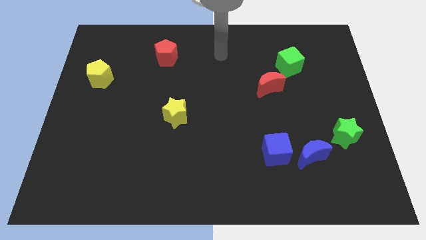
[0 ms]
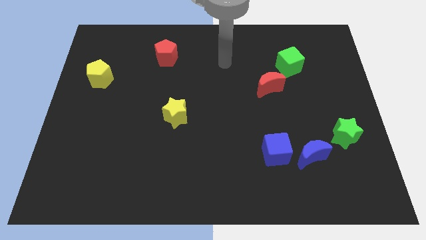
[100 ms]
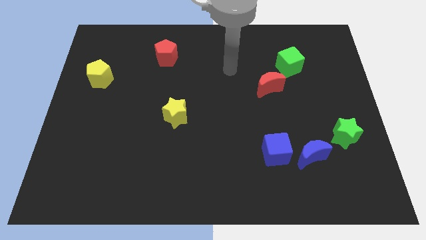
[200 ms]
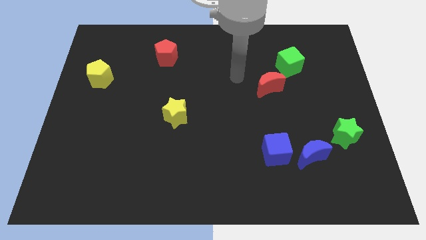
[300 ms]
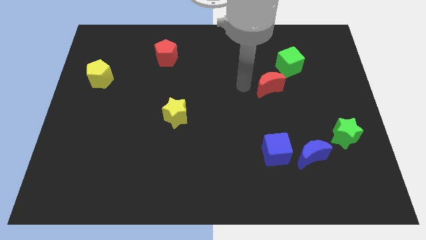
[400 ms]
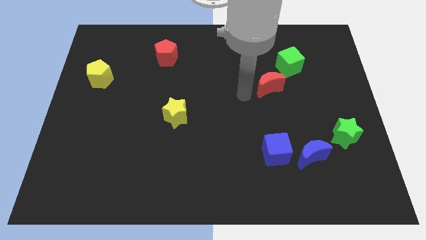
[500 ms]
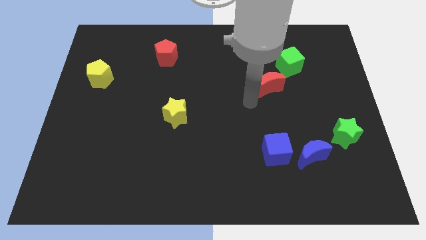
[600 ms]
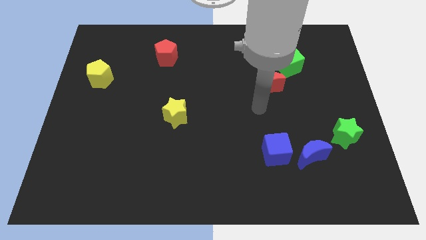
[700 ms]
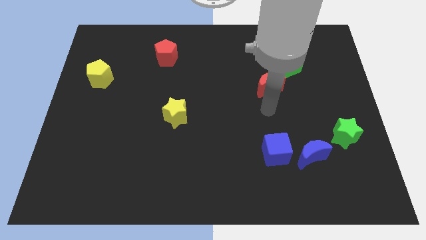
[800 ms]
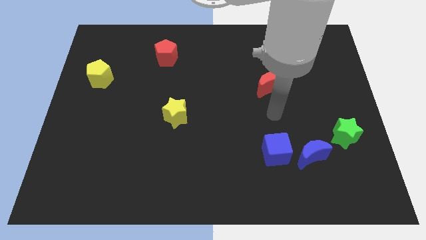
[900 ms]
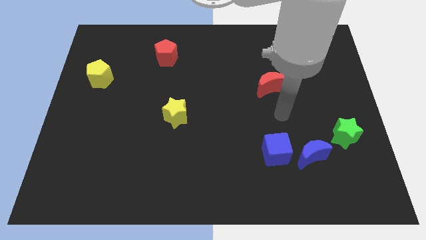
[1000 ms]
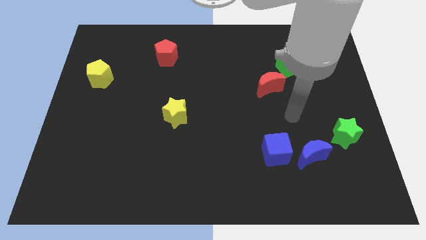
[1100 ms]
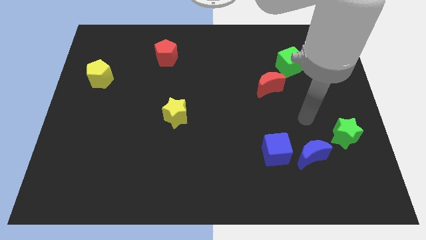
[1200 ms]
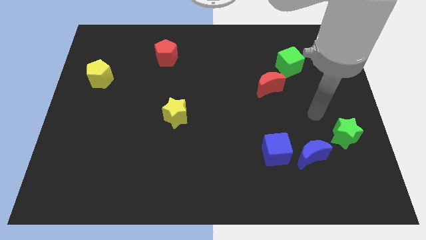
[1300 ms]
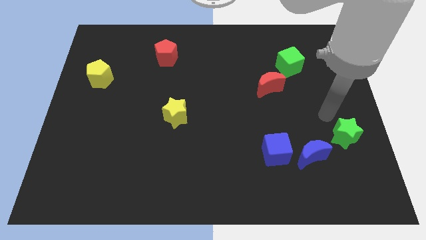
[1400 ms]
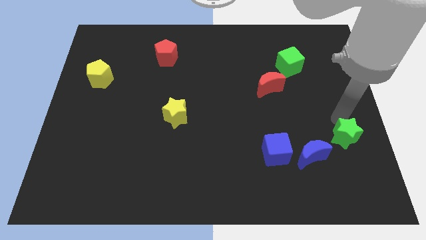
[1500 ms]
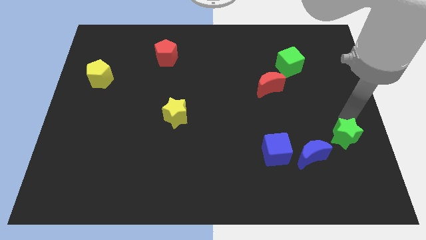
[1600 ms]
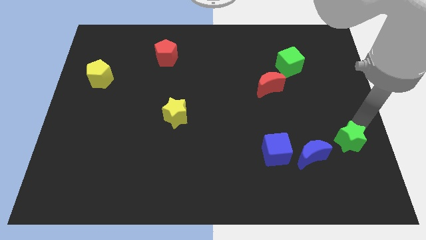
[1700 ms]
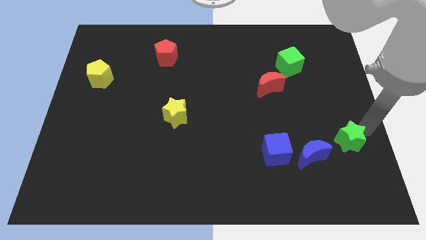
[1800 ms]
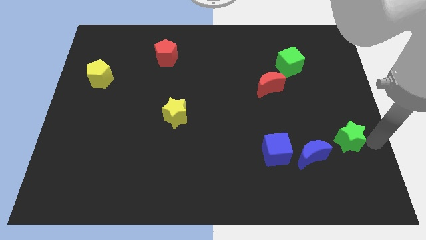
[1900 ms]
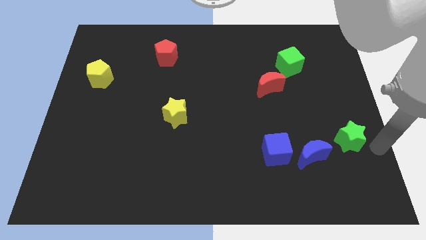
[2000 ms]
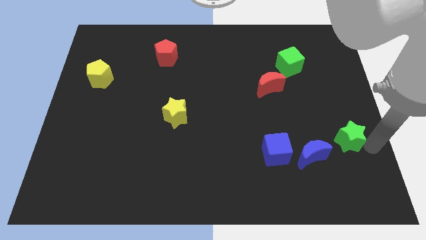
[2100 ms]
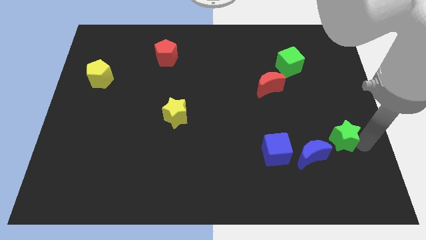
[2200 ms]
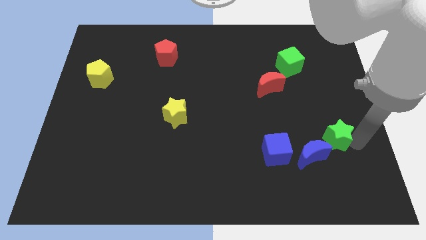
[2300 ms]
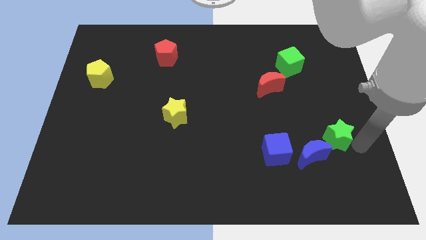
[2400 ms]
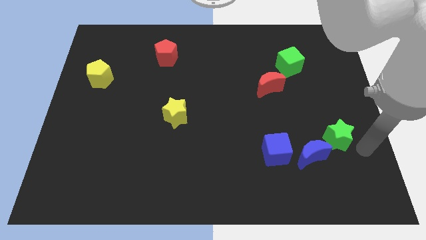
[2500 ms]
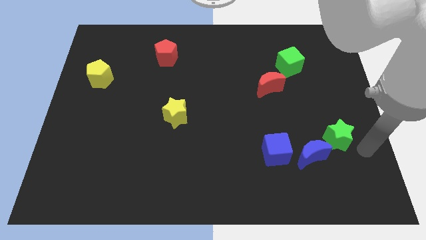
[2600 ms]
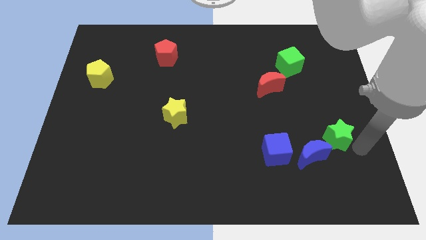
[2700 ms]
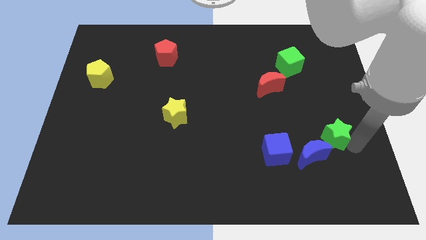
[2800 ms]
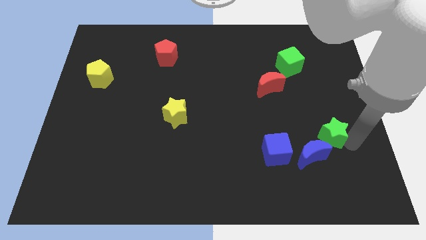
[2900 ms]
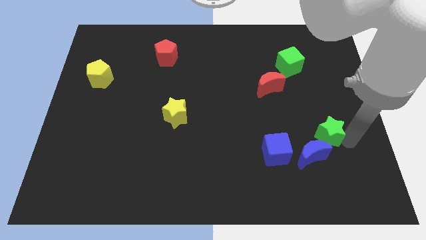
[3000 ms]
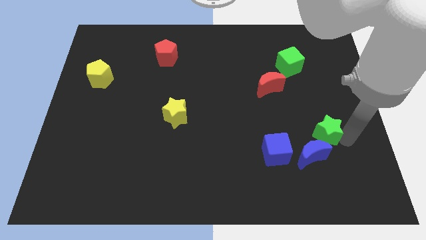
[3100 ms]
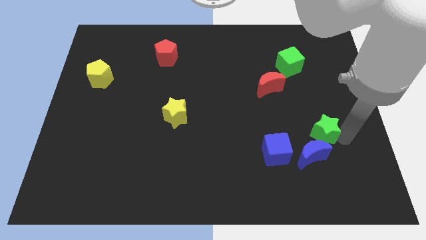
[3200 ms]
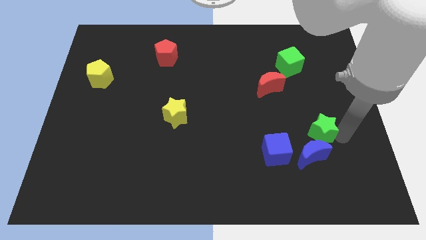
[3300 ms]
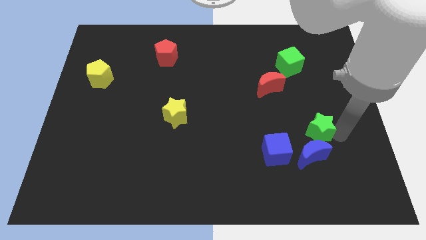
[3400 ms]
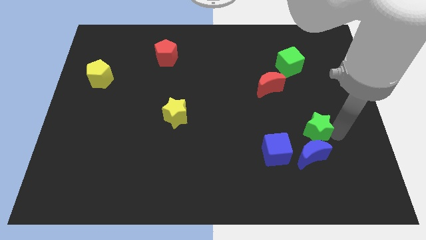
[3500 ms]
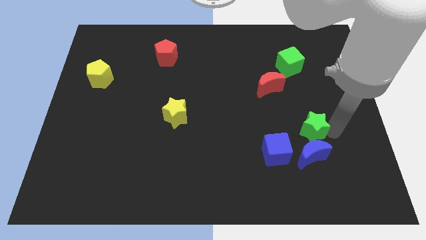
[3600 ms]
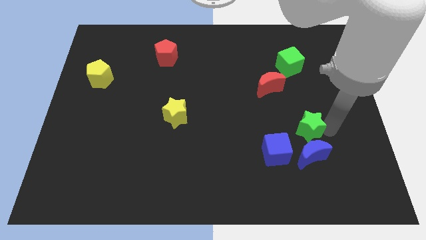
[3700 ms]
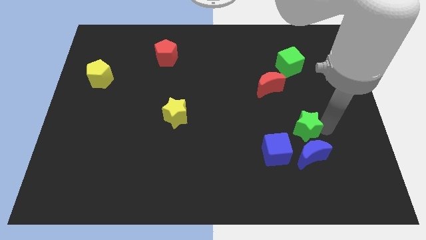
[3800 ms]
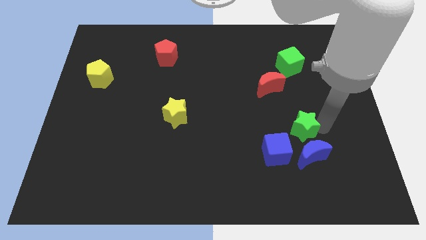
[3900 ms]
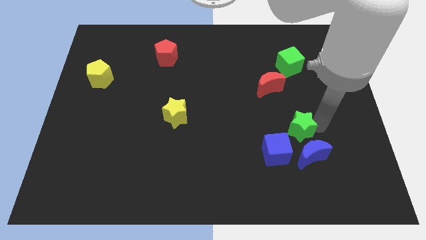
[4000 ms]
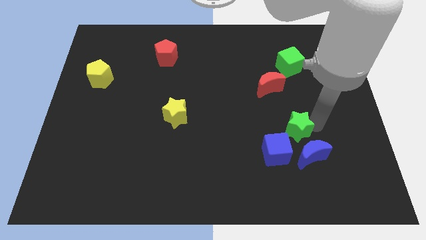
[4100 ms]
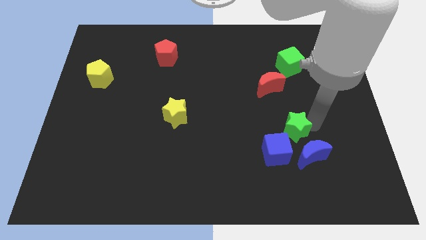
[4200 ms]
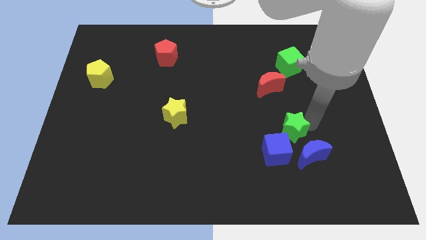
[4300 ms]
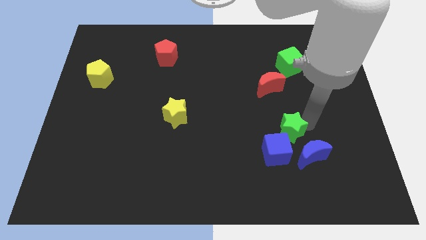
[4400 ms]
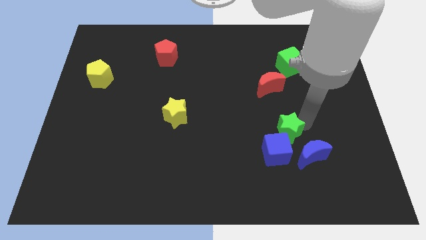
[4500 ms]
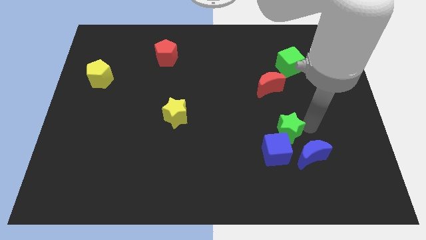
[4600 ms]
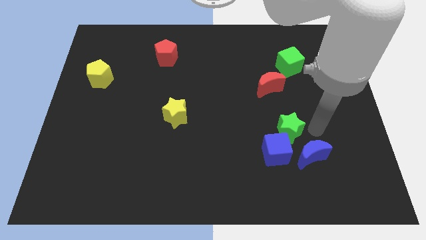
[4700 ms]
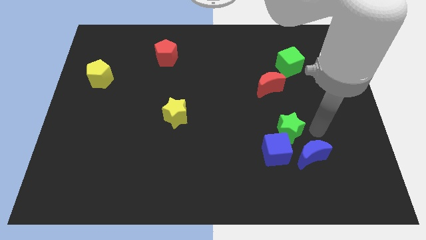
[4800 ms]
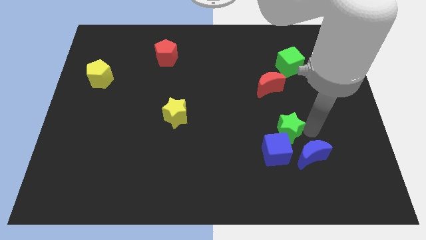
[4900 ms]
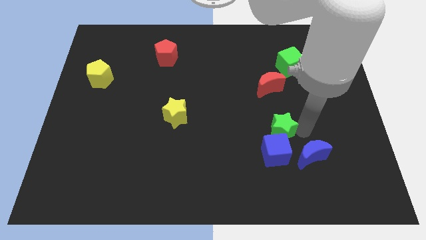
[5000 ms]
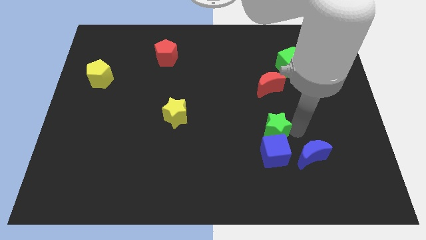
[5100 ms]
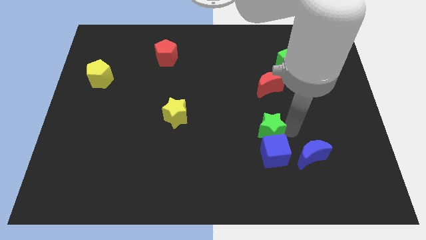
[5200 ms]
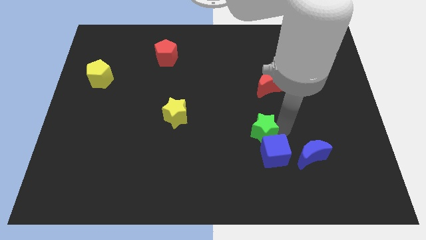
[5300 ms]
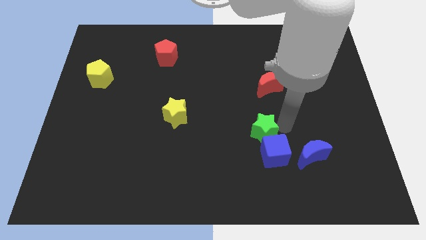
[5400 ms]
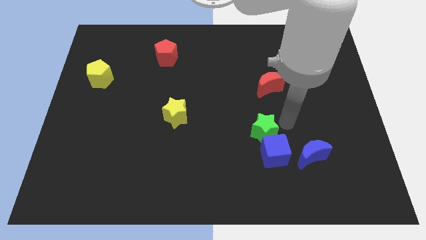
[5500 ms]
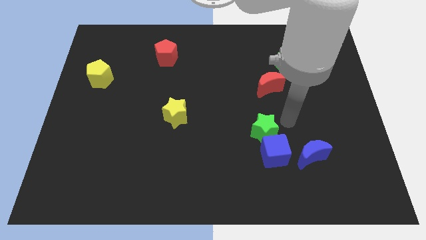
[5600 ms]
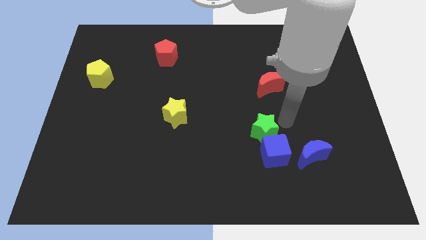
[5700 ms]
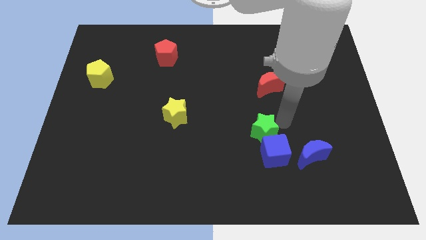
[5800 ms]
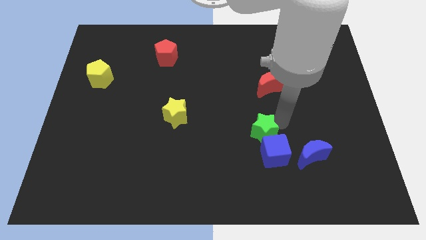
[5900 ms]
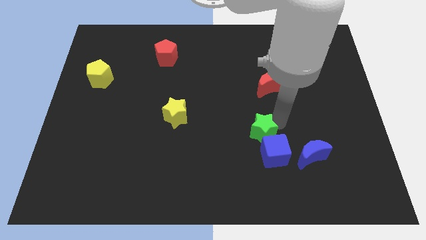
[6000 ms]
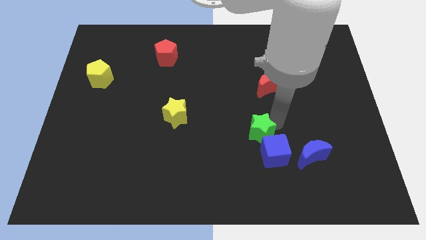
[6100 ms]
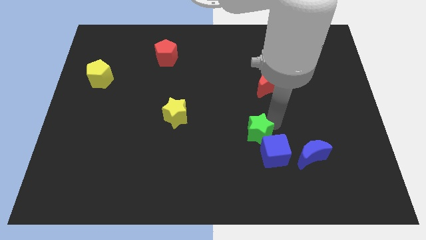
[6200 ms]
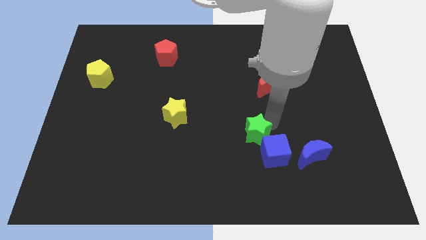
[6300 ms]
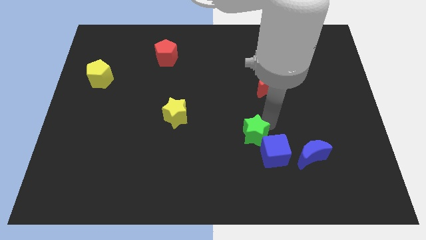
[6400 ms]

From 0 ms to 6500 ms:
put the green star left of the blue cube

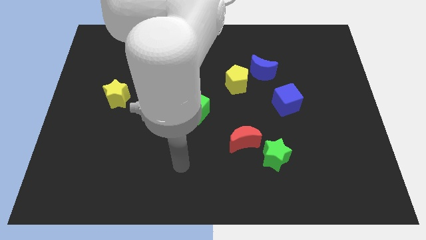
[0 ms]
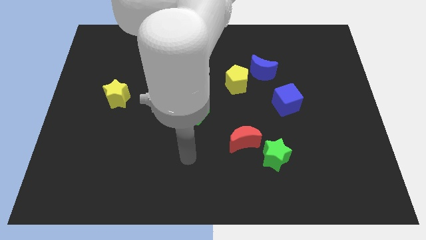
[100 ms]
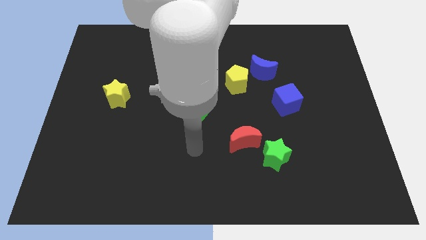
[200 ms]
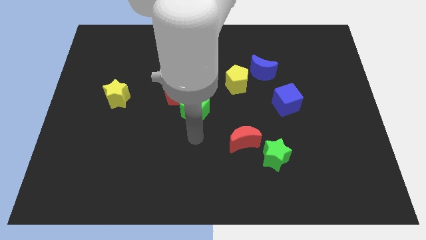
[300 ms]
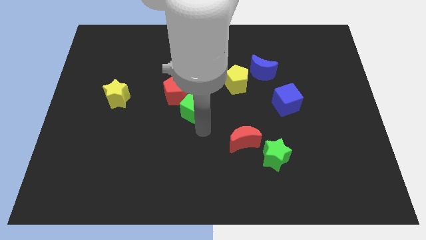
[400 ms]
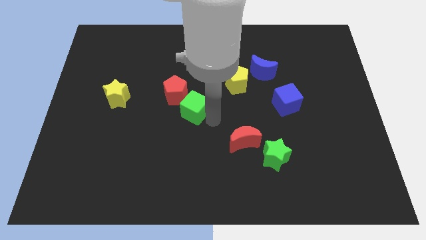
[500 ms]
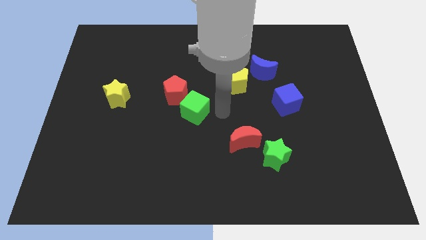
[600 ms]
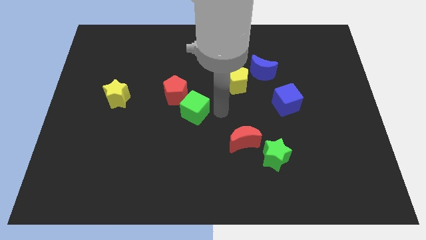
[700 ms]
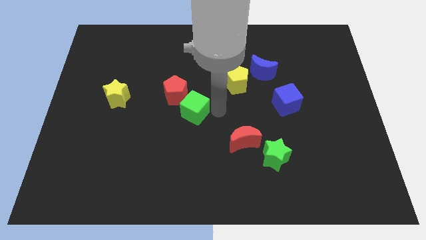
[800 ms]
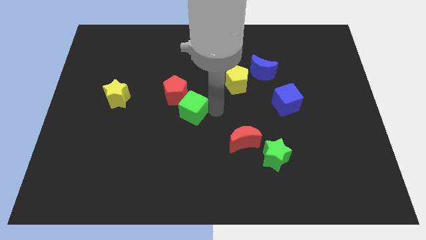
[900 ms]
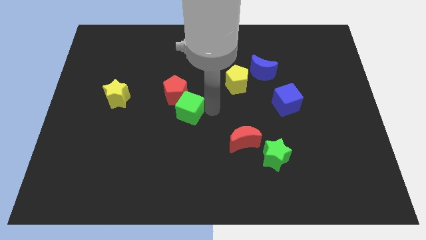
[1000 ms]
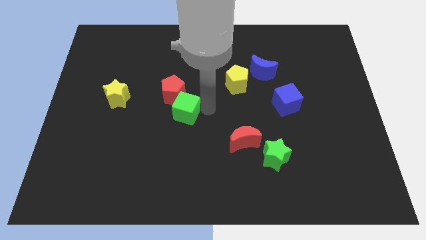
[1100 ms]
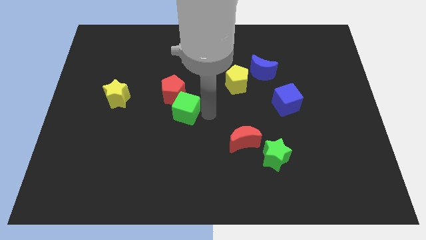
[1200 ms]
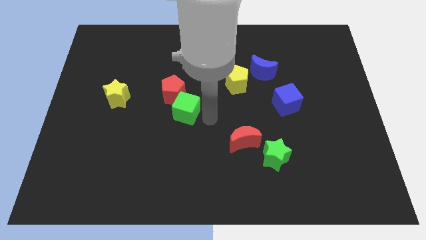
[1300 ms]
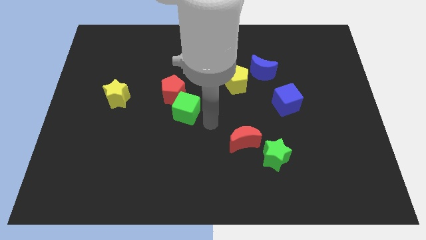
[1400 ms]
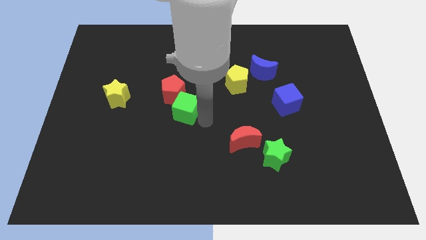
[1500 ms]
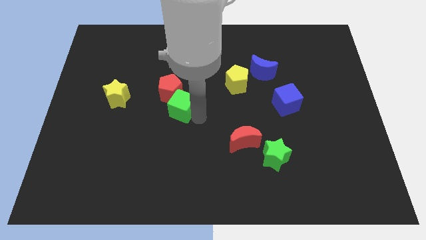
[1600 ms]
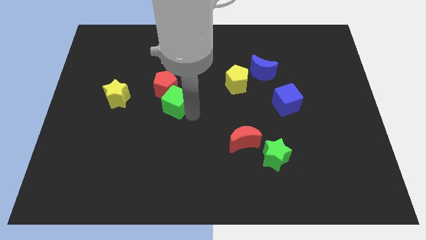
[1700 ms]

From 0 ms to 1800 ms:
slide the green cube just right of the yellow star
